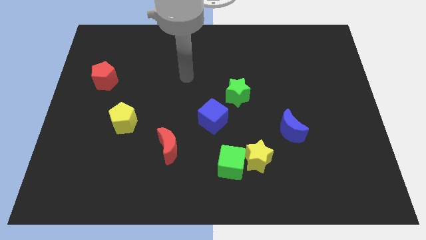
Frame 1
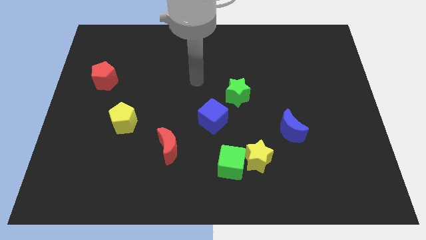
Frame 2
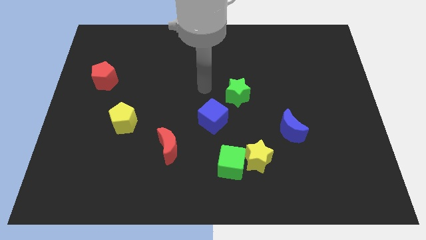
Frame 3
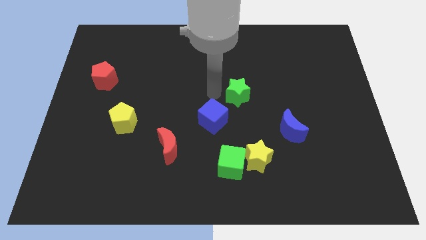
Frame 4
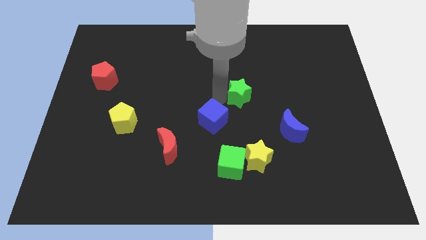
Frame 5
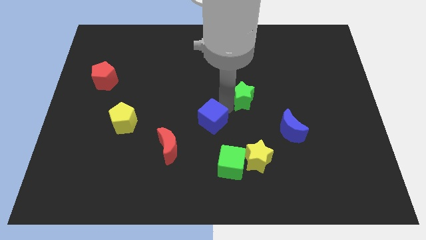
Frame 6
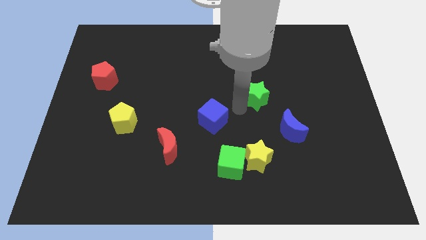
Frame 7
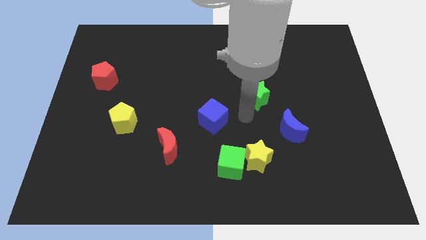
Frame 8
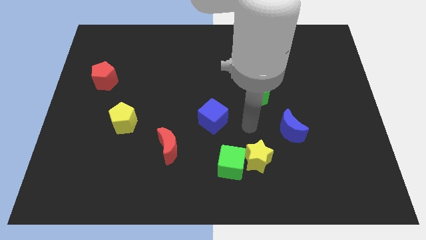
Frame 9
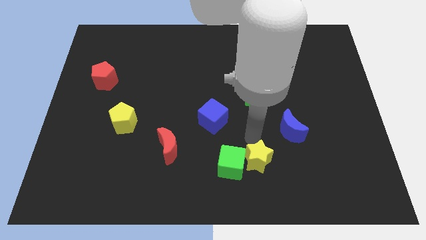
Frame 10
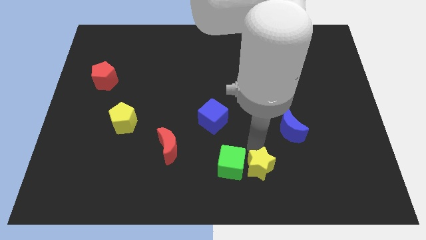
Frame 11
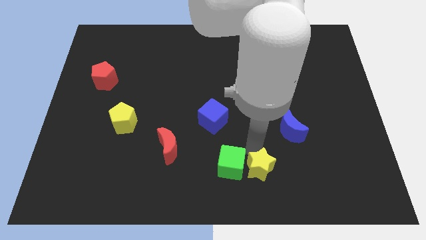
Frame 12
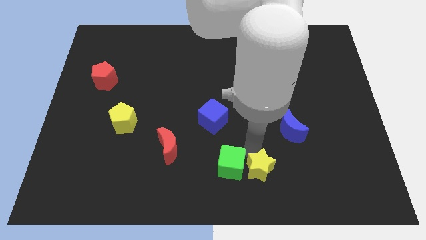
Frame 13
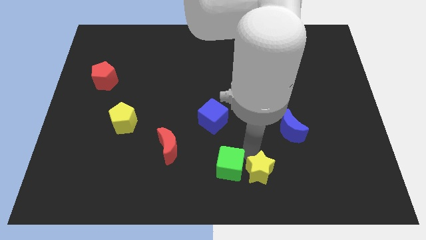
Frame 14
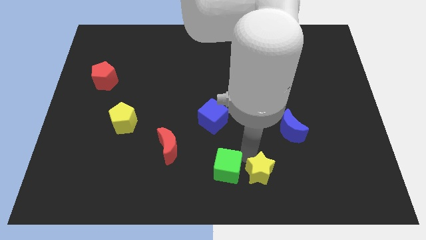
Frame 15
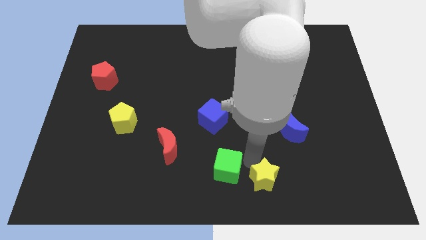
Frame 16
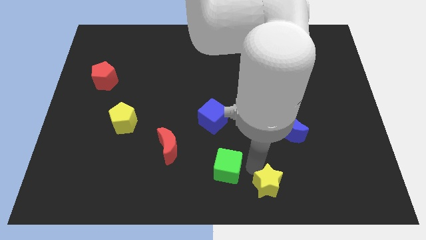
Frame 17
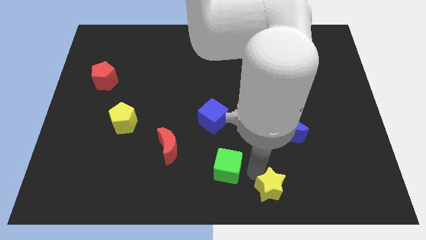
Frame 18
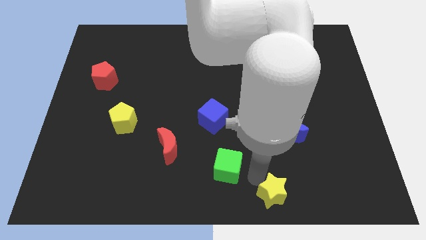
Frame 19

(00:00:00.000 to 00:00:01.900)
pull the green cube apart from the yellow star

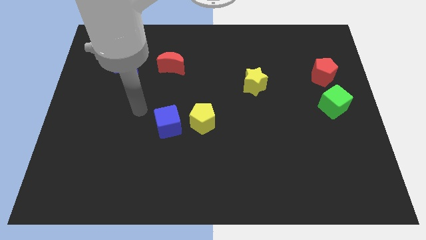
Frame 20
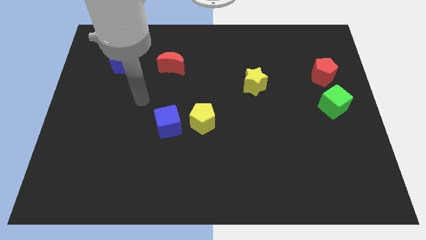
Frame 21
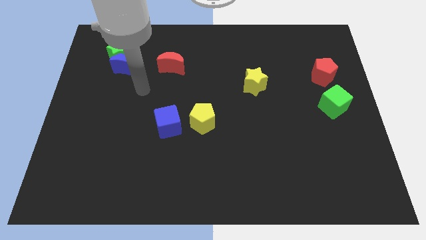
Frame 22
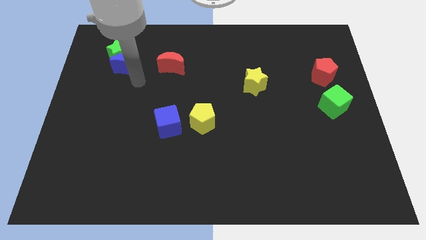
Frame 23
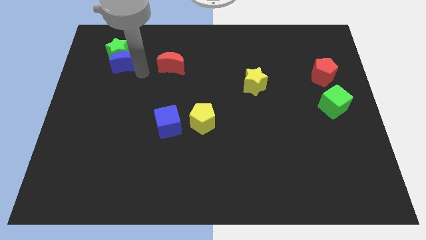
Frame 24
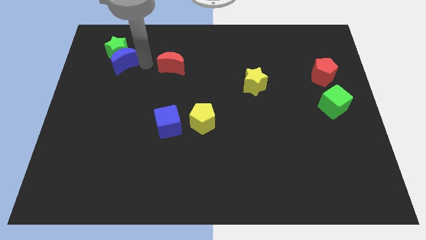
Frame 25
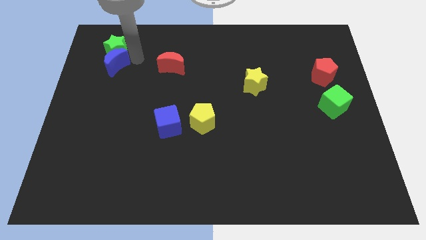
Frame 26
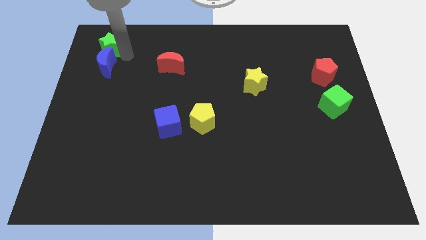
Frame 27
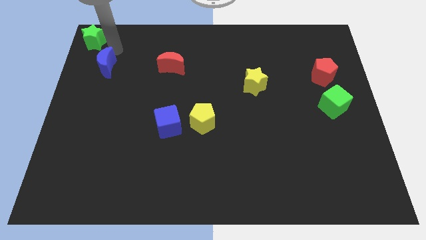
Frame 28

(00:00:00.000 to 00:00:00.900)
move the blue moon away from the green star

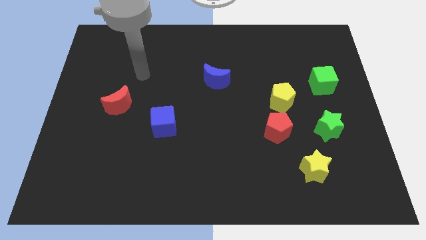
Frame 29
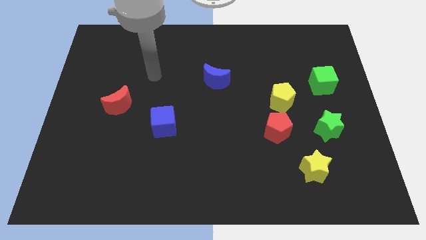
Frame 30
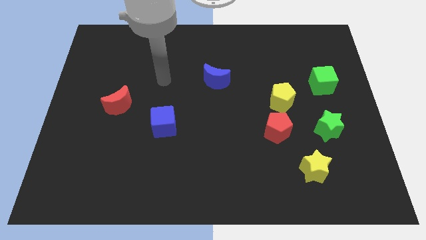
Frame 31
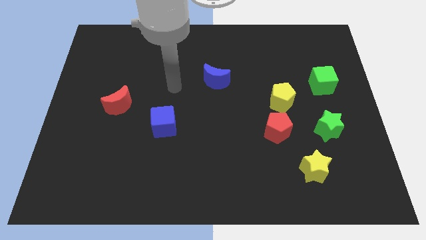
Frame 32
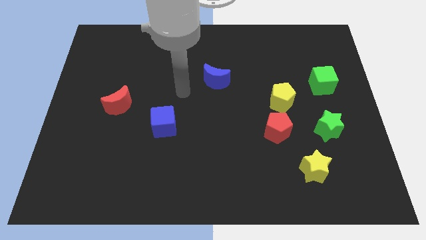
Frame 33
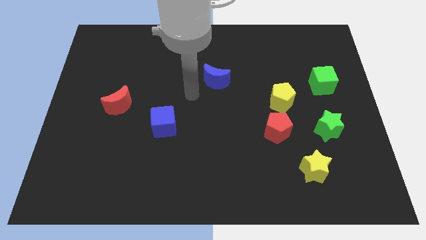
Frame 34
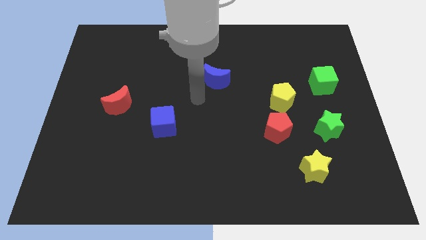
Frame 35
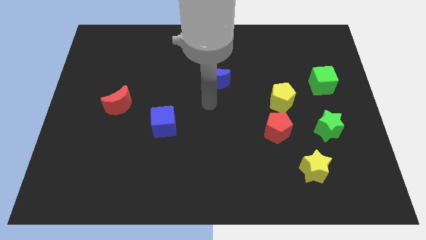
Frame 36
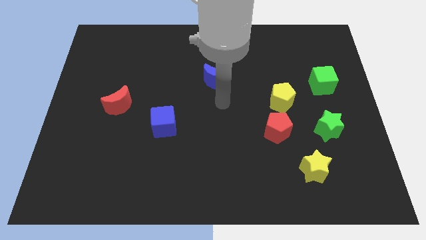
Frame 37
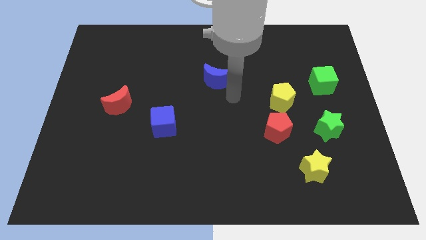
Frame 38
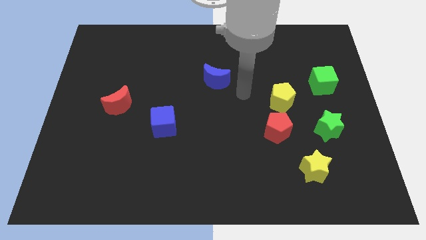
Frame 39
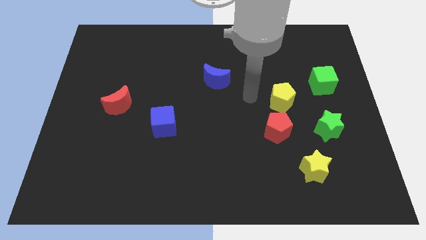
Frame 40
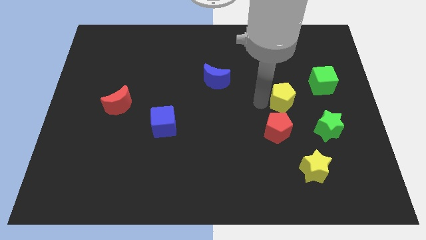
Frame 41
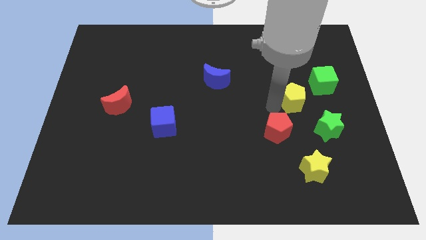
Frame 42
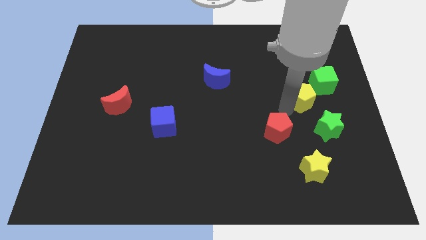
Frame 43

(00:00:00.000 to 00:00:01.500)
separate the red pentagon from the yellow pentagon

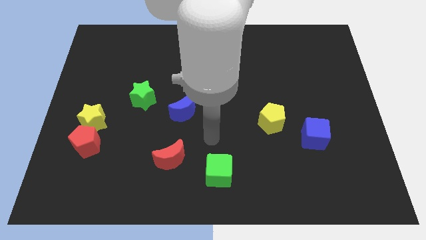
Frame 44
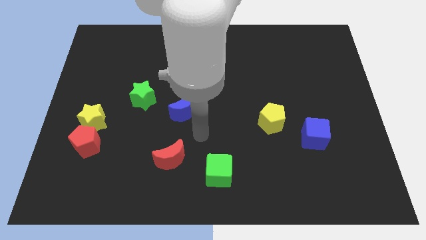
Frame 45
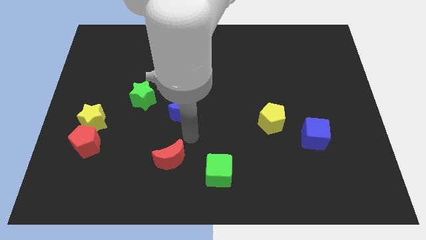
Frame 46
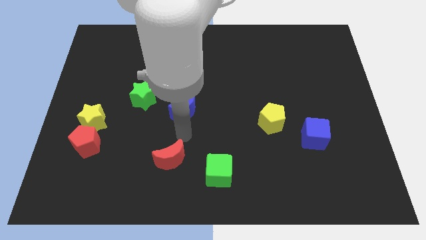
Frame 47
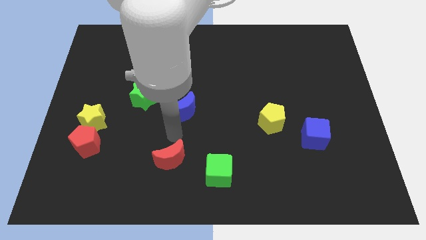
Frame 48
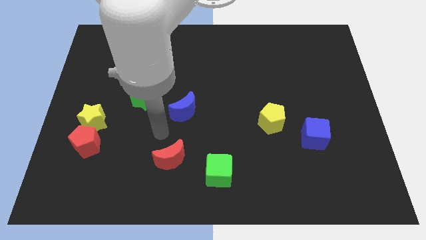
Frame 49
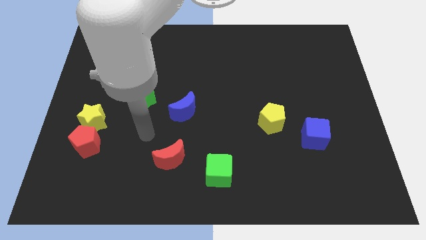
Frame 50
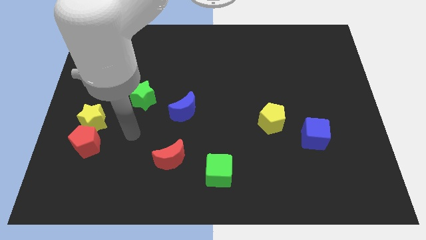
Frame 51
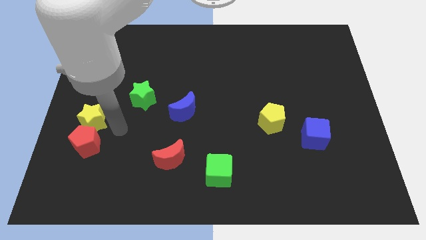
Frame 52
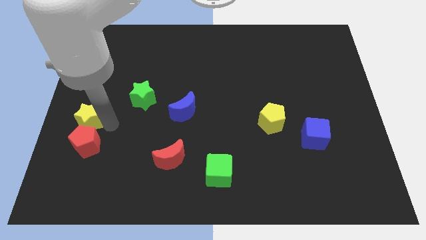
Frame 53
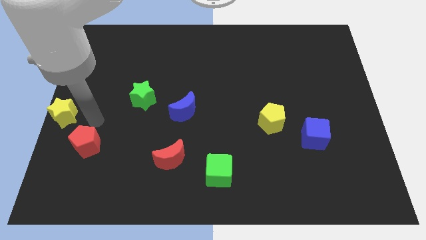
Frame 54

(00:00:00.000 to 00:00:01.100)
separate the red pentagon from the yellow star

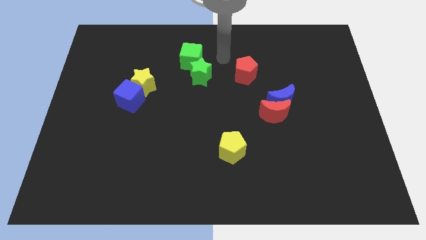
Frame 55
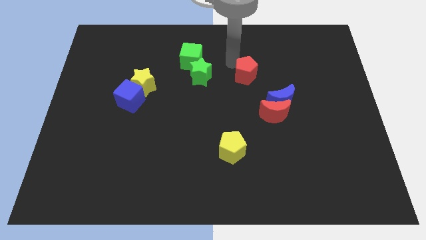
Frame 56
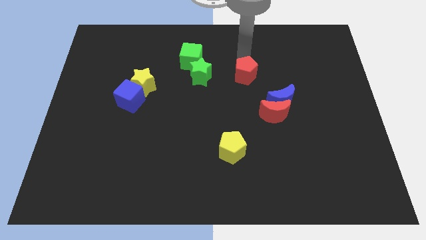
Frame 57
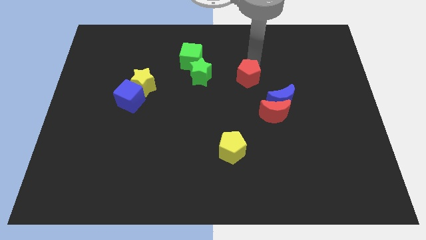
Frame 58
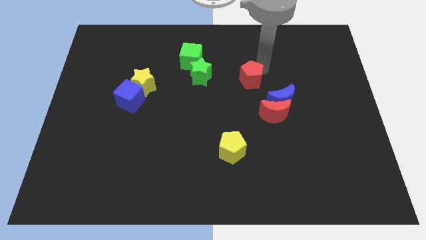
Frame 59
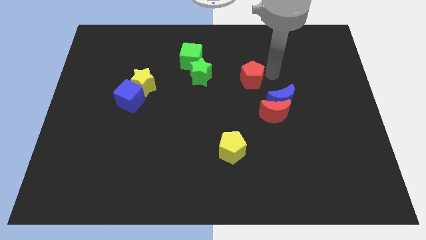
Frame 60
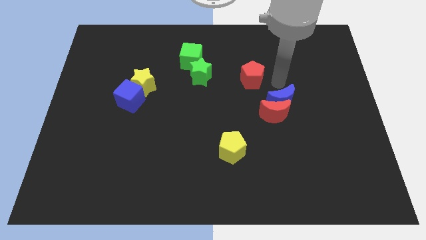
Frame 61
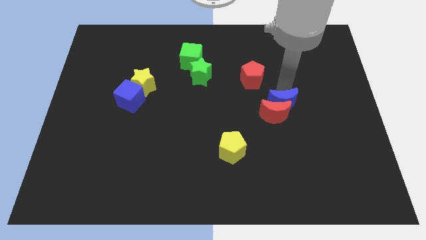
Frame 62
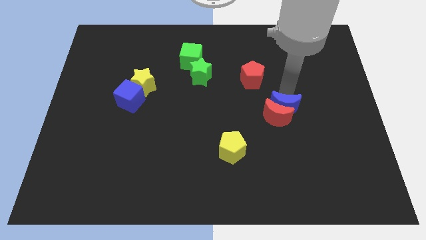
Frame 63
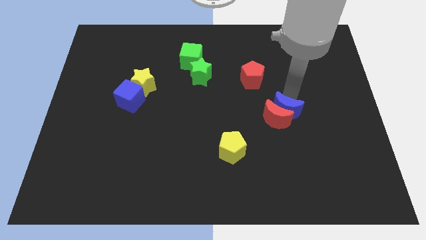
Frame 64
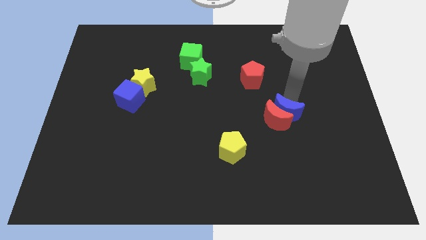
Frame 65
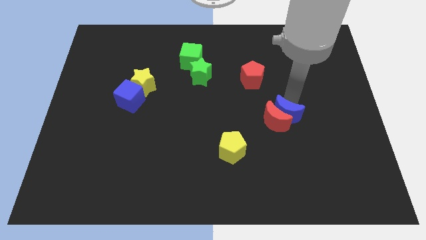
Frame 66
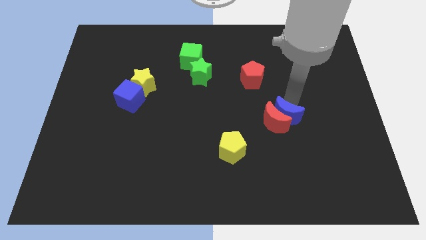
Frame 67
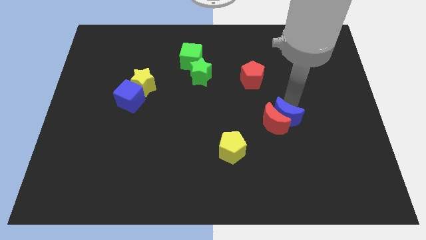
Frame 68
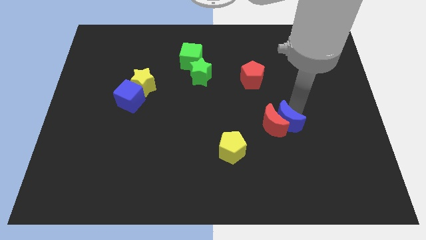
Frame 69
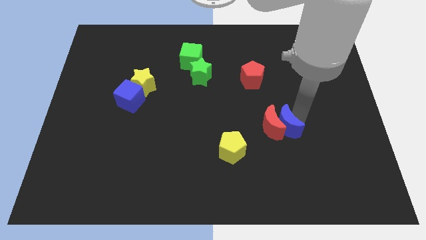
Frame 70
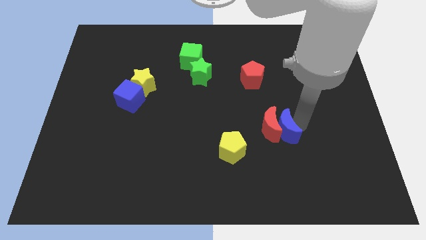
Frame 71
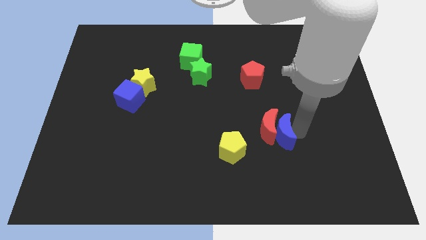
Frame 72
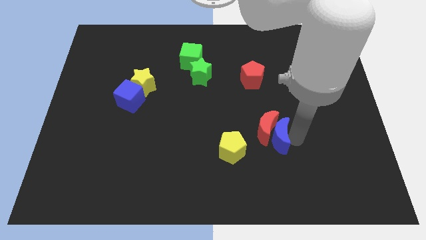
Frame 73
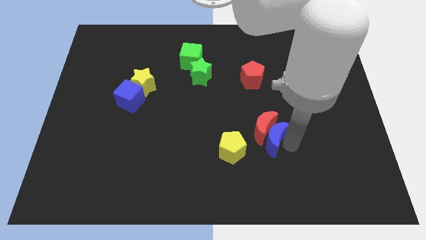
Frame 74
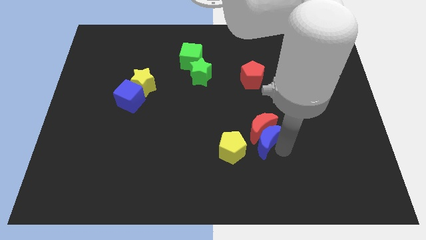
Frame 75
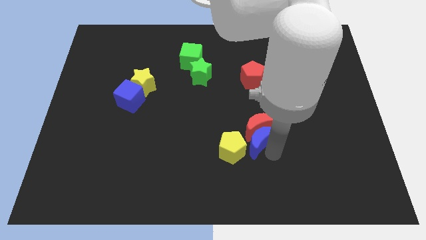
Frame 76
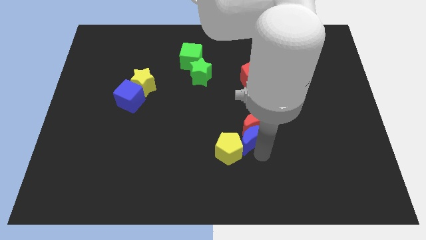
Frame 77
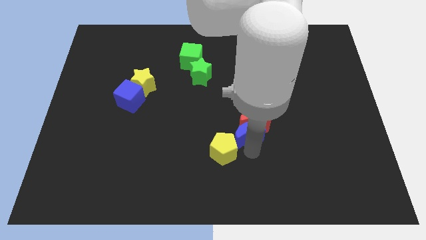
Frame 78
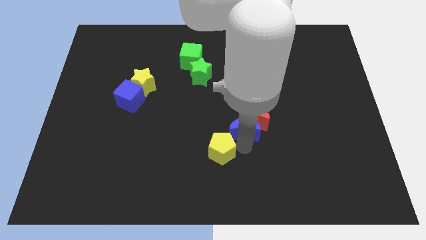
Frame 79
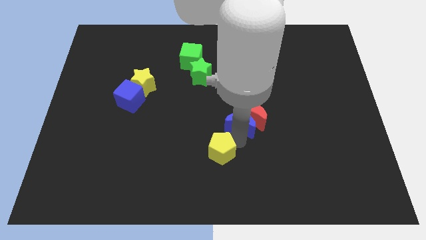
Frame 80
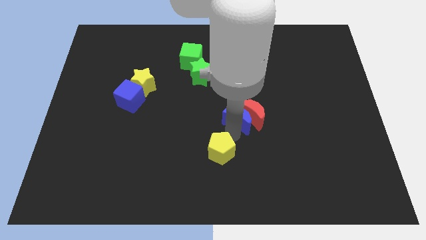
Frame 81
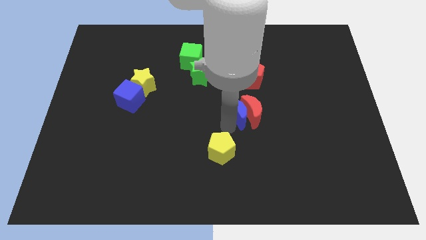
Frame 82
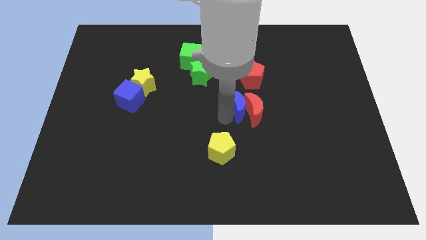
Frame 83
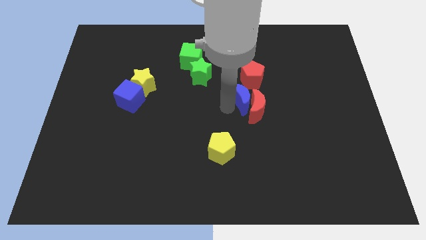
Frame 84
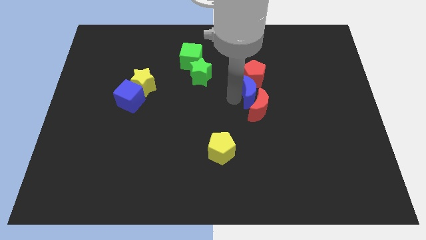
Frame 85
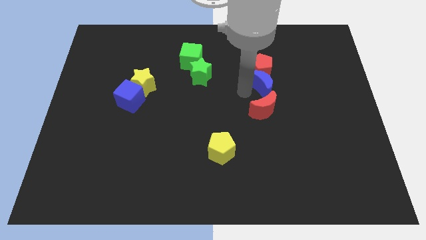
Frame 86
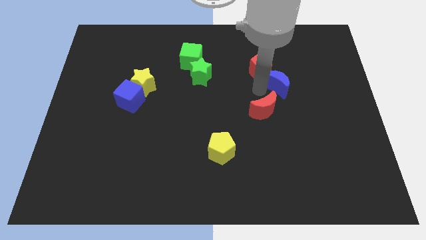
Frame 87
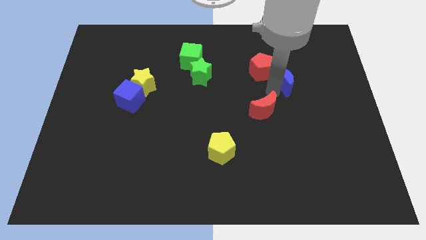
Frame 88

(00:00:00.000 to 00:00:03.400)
pull the red moon apart from the blue moon

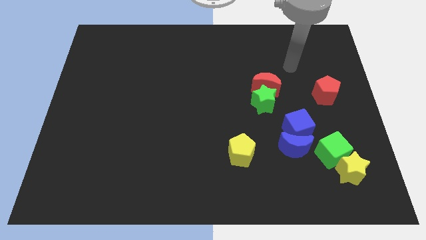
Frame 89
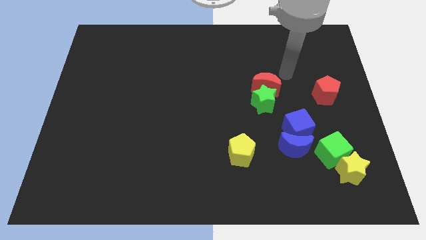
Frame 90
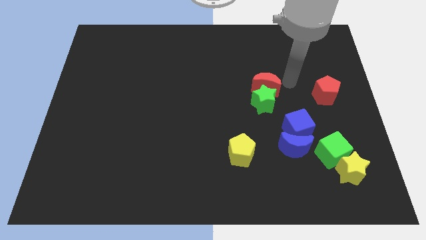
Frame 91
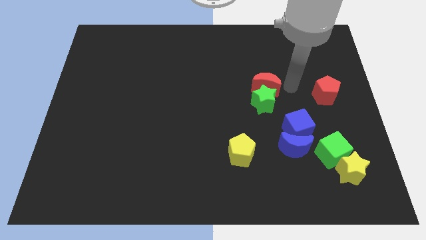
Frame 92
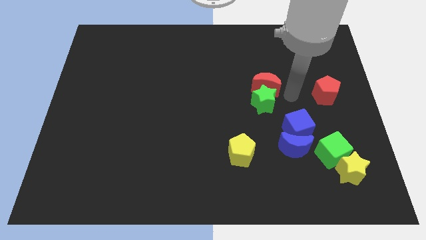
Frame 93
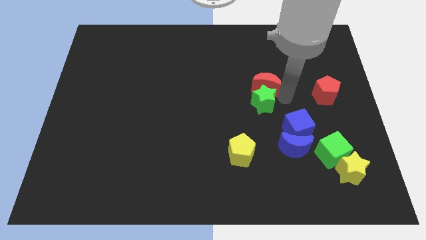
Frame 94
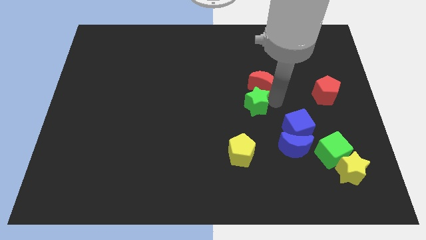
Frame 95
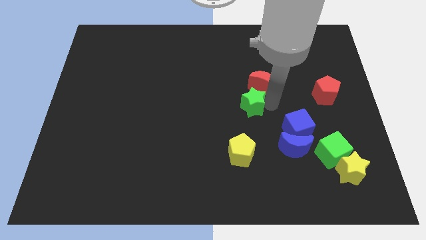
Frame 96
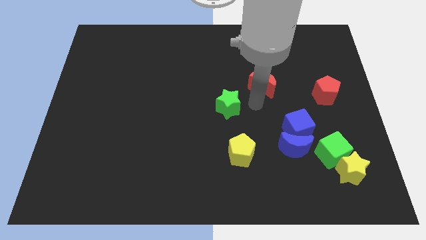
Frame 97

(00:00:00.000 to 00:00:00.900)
separate the red moon from the green star
